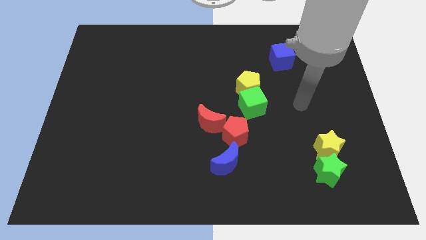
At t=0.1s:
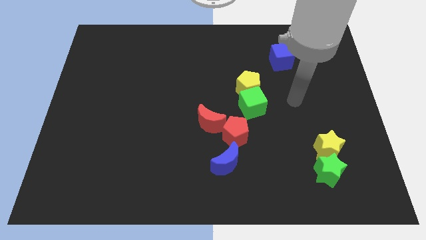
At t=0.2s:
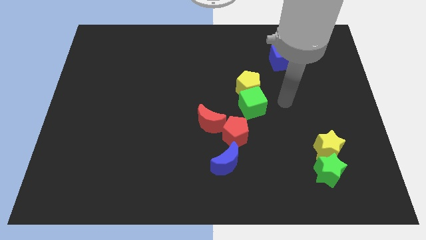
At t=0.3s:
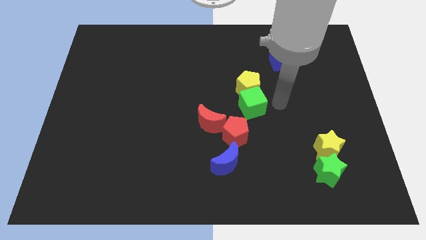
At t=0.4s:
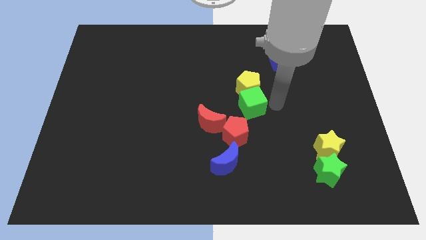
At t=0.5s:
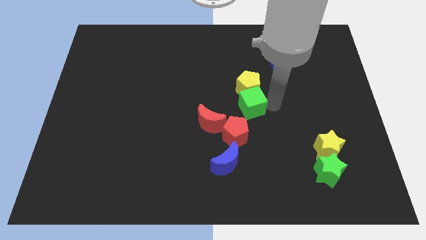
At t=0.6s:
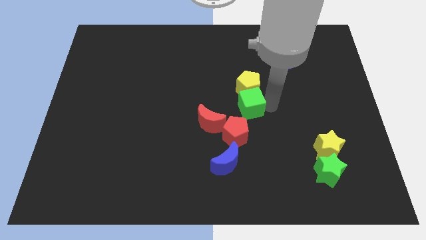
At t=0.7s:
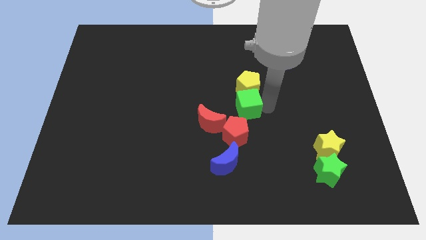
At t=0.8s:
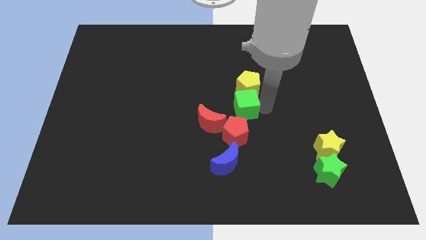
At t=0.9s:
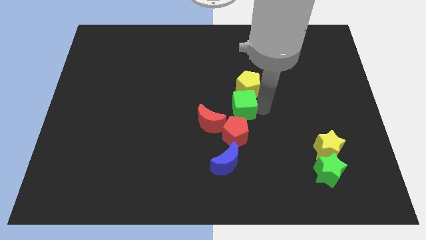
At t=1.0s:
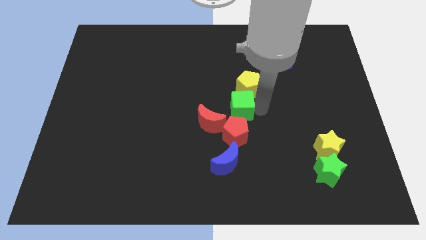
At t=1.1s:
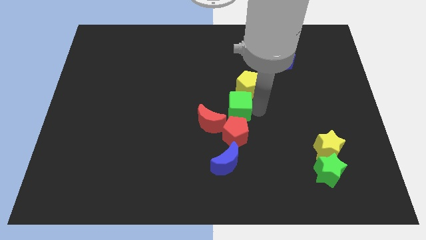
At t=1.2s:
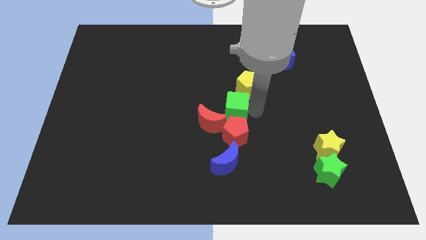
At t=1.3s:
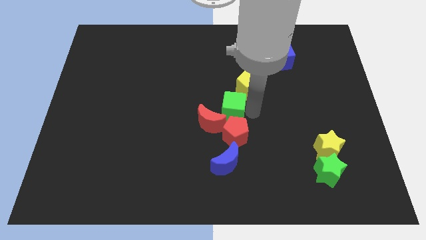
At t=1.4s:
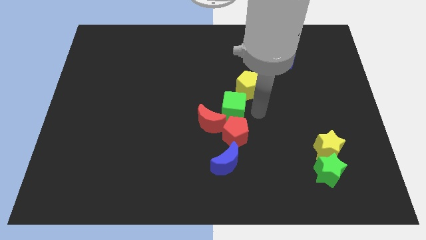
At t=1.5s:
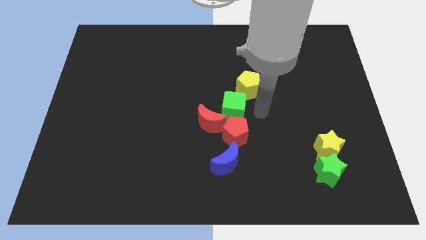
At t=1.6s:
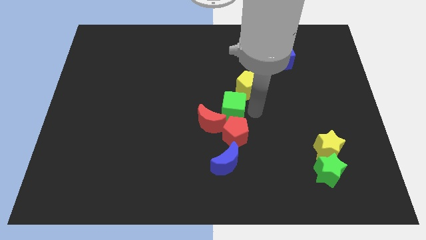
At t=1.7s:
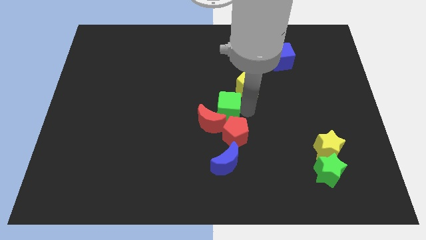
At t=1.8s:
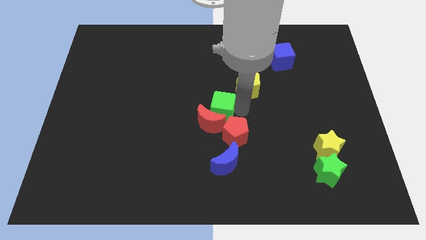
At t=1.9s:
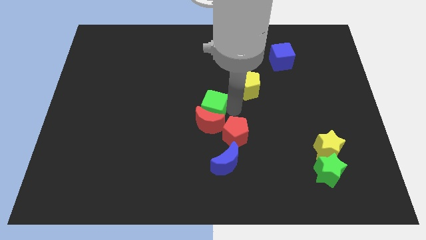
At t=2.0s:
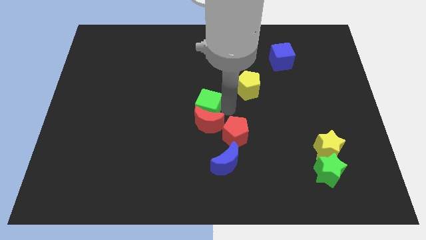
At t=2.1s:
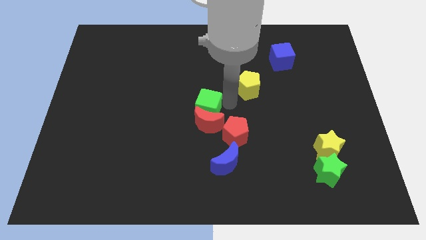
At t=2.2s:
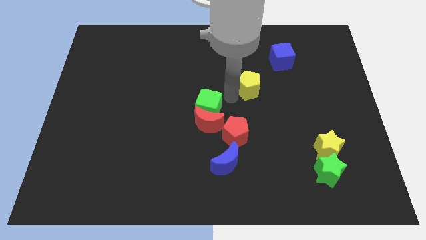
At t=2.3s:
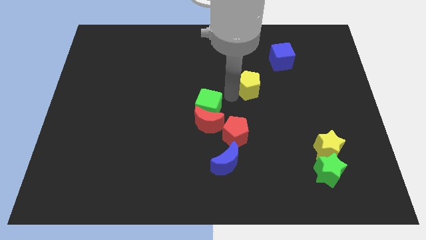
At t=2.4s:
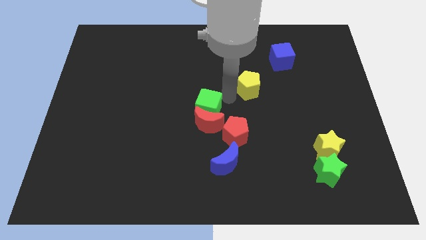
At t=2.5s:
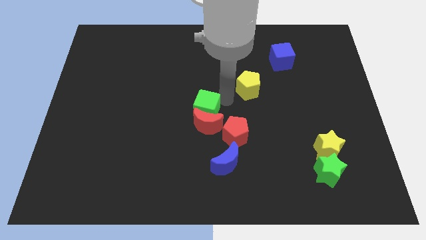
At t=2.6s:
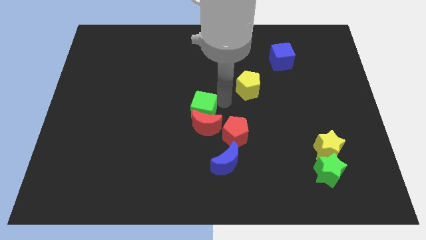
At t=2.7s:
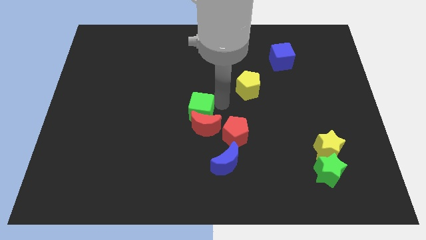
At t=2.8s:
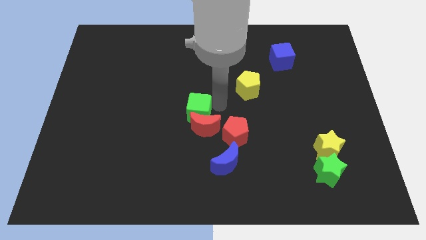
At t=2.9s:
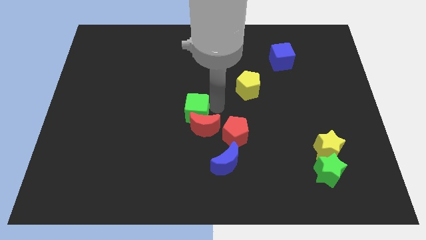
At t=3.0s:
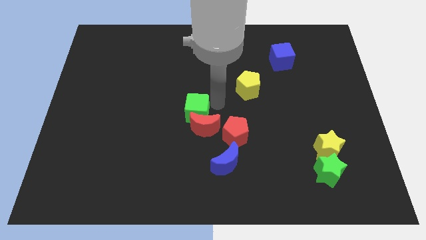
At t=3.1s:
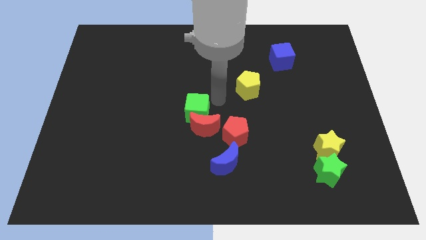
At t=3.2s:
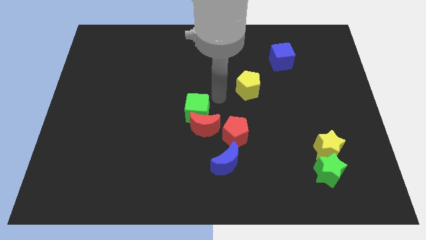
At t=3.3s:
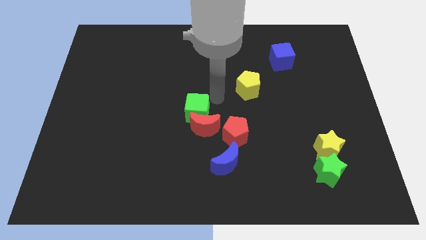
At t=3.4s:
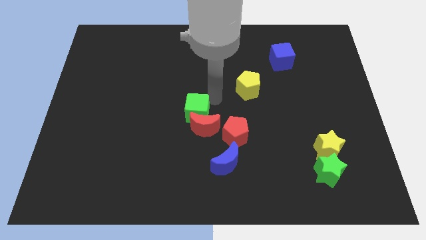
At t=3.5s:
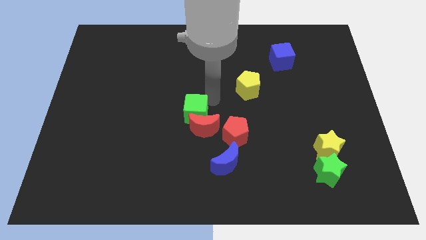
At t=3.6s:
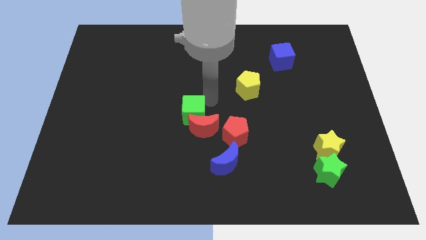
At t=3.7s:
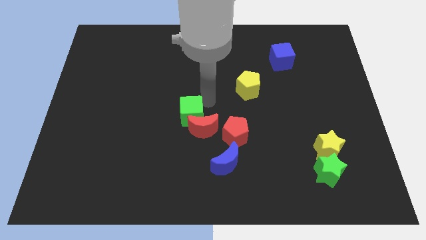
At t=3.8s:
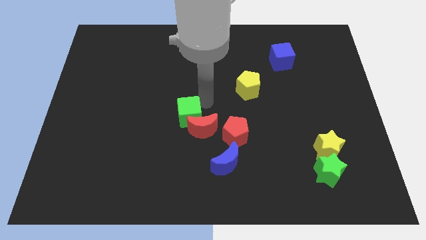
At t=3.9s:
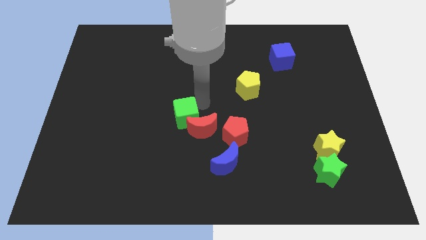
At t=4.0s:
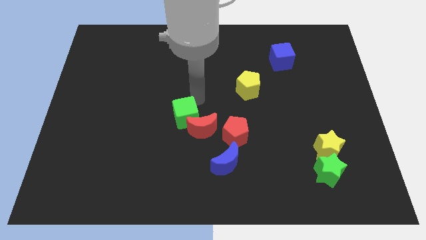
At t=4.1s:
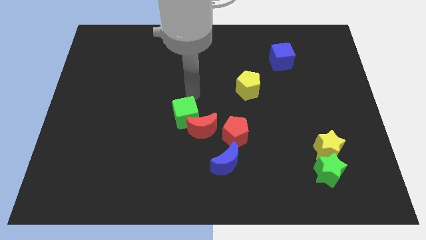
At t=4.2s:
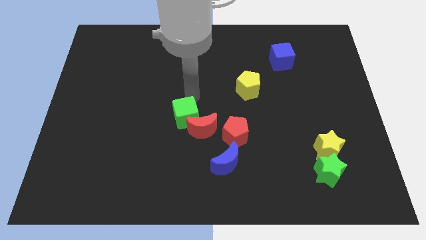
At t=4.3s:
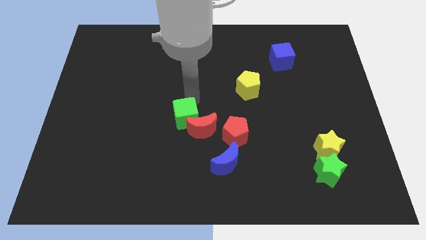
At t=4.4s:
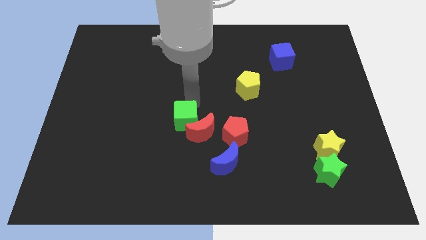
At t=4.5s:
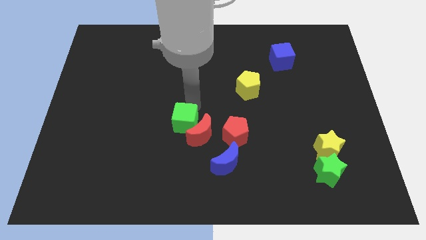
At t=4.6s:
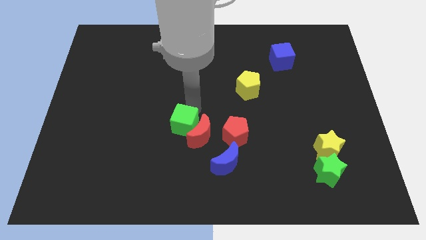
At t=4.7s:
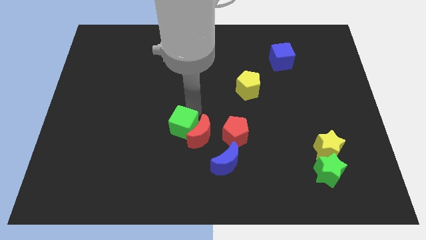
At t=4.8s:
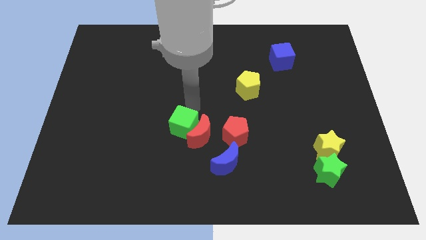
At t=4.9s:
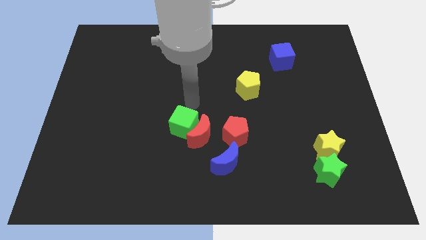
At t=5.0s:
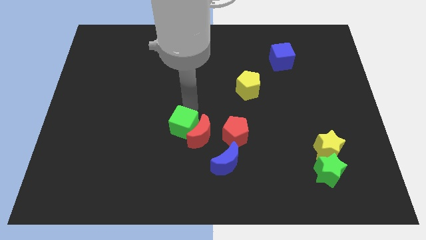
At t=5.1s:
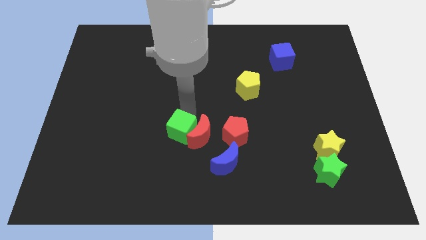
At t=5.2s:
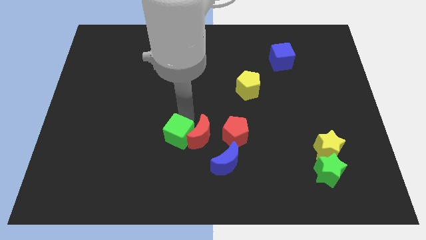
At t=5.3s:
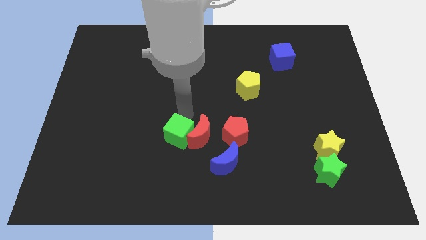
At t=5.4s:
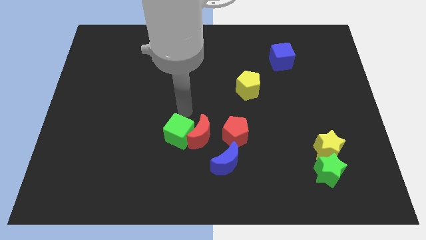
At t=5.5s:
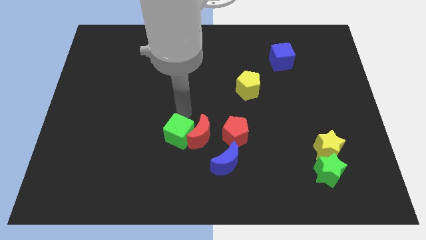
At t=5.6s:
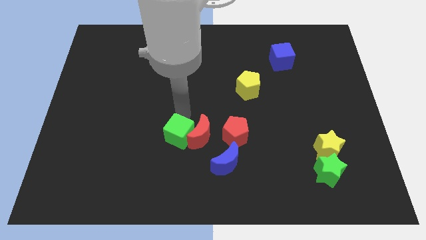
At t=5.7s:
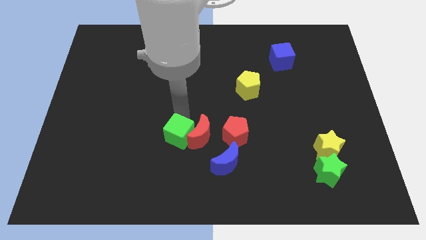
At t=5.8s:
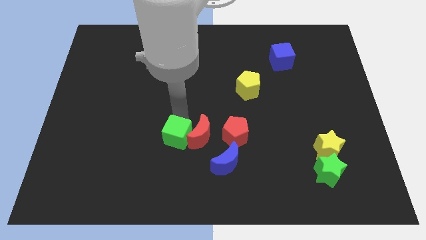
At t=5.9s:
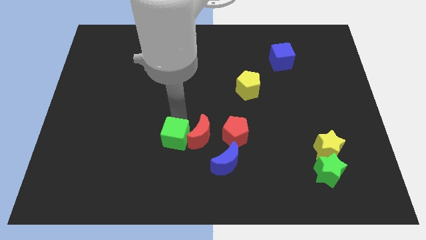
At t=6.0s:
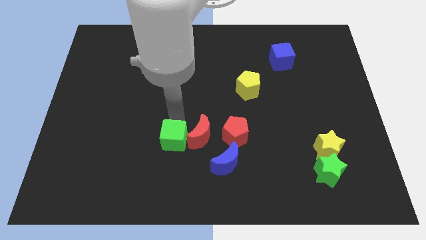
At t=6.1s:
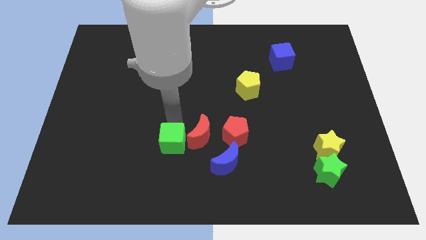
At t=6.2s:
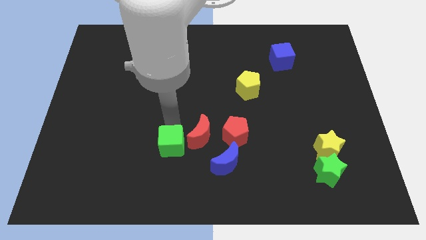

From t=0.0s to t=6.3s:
put the green cube just left of the blue moon

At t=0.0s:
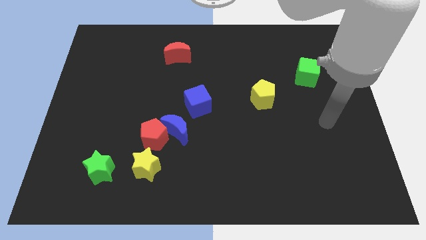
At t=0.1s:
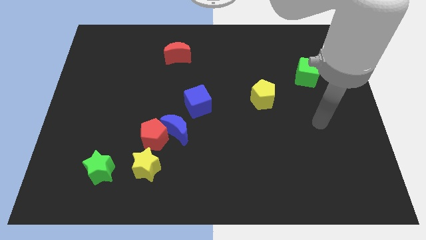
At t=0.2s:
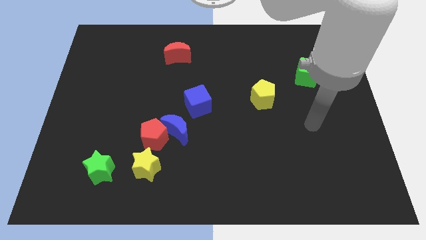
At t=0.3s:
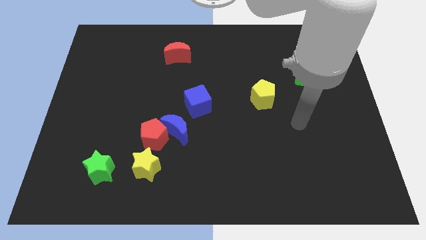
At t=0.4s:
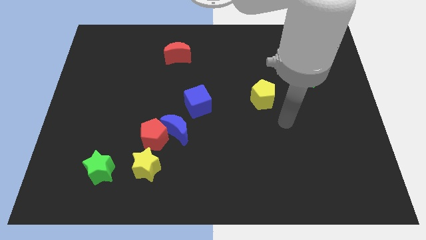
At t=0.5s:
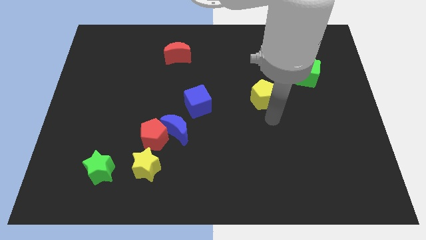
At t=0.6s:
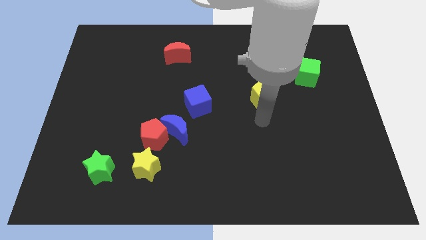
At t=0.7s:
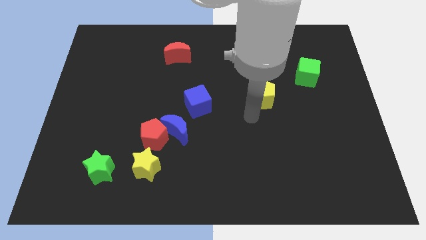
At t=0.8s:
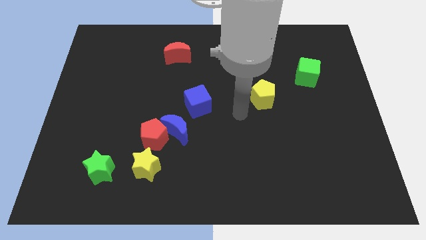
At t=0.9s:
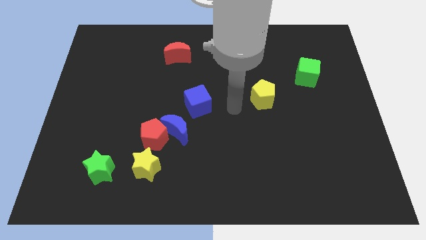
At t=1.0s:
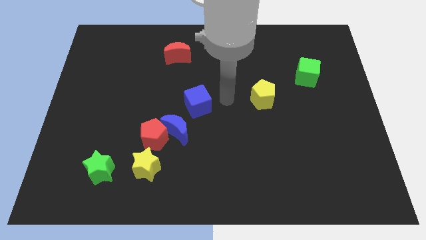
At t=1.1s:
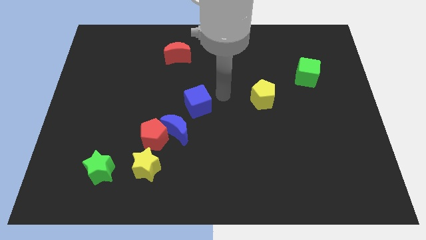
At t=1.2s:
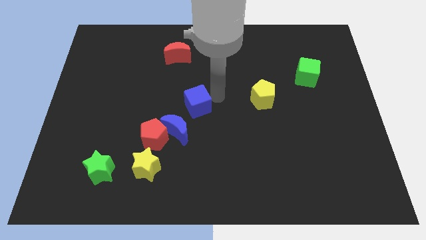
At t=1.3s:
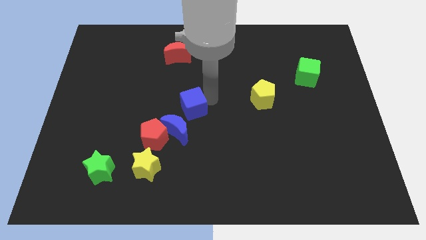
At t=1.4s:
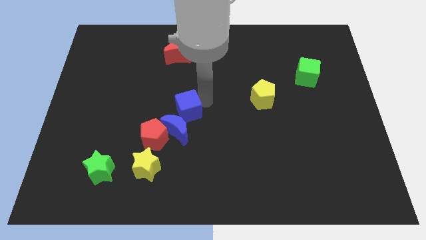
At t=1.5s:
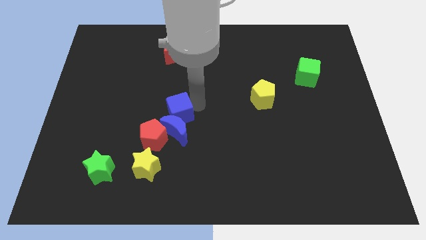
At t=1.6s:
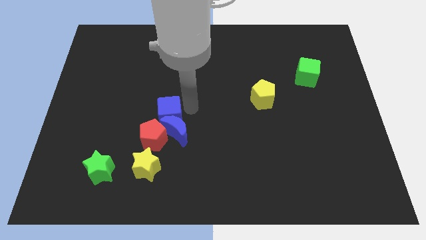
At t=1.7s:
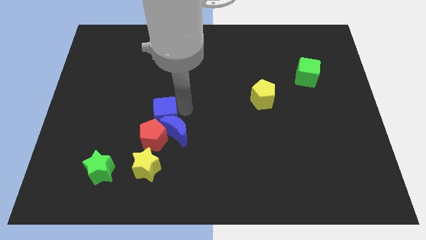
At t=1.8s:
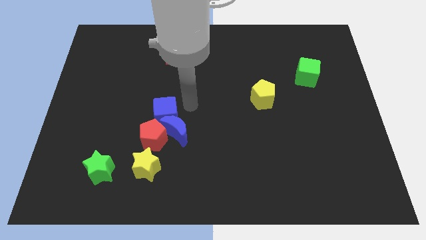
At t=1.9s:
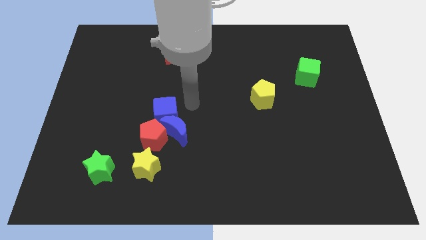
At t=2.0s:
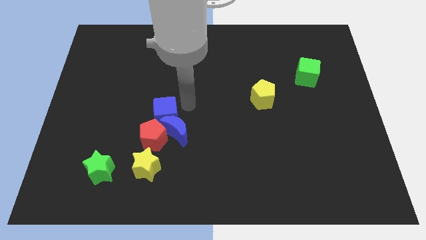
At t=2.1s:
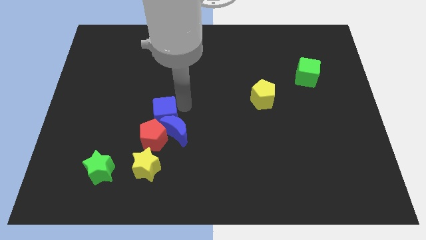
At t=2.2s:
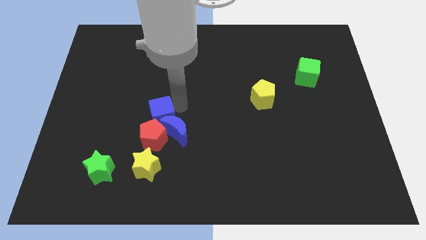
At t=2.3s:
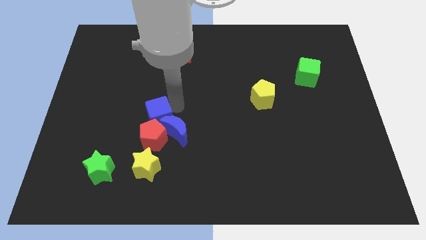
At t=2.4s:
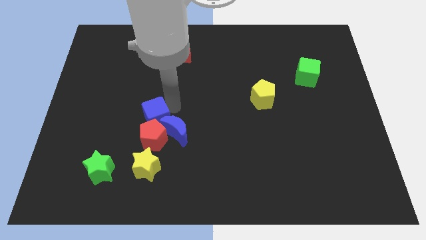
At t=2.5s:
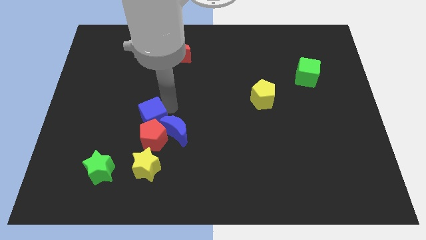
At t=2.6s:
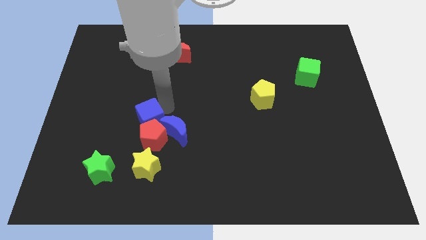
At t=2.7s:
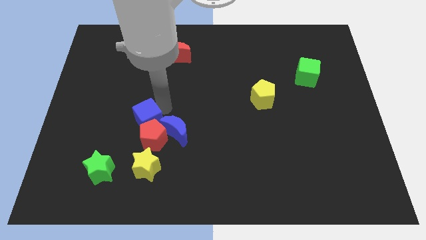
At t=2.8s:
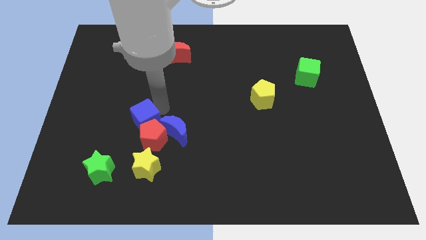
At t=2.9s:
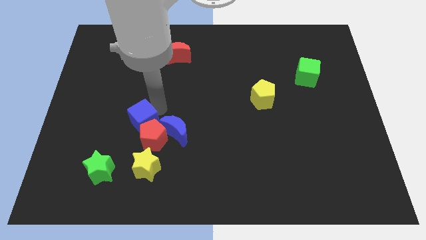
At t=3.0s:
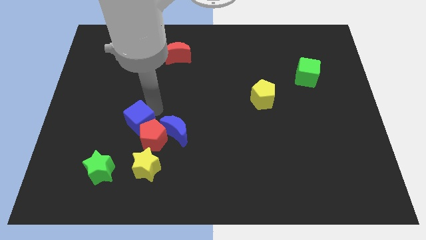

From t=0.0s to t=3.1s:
push the blue cube left of the red pentagon
